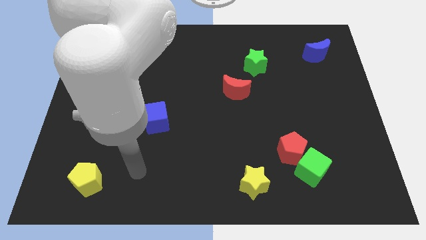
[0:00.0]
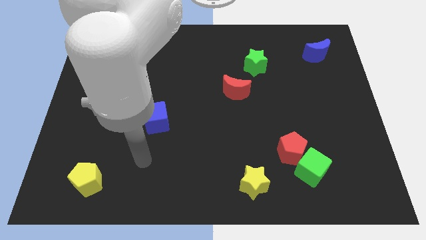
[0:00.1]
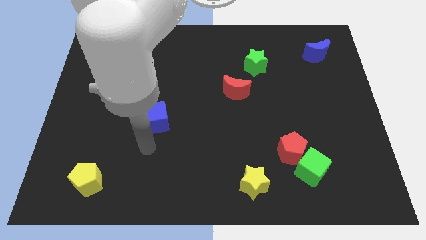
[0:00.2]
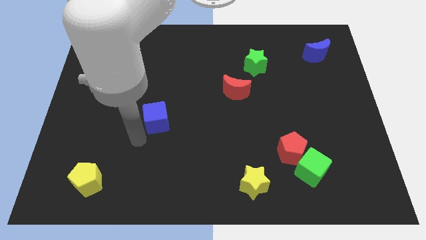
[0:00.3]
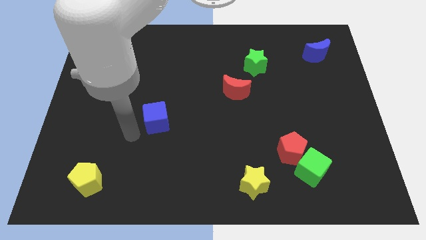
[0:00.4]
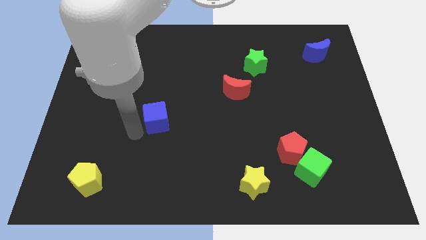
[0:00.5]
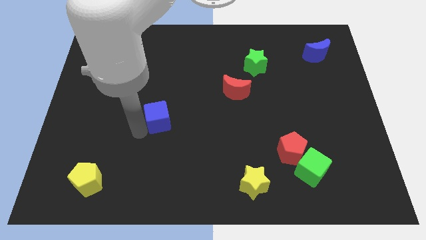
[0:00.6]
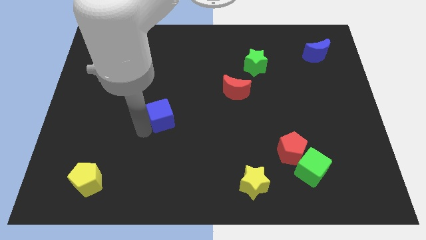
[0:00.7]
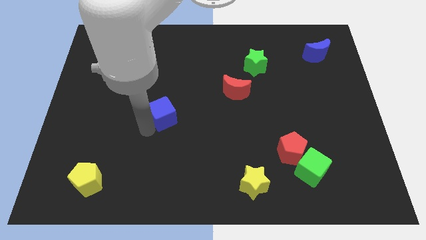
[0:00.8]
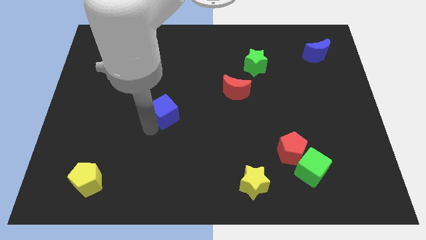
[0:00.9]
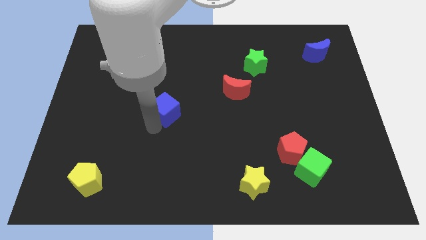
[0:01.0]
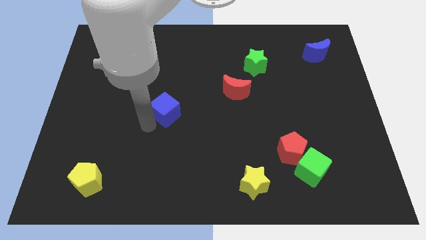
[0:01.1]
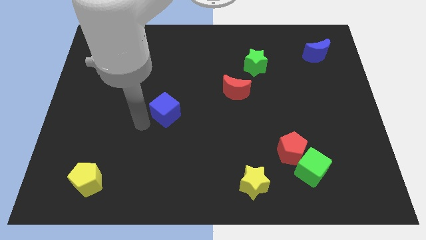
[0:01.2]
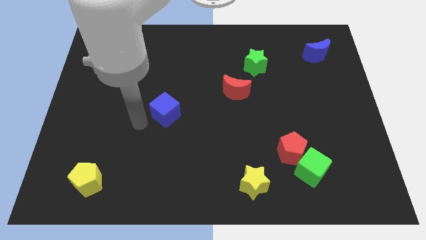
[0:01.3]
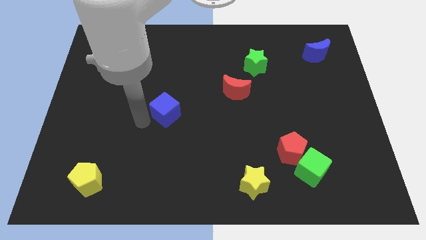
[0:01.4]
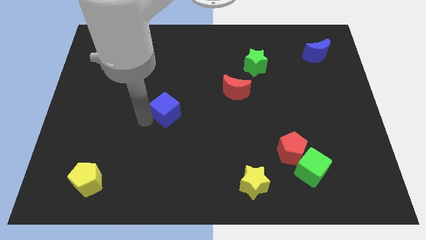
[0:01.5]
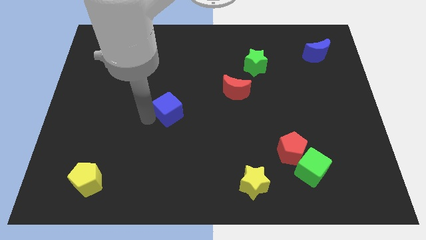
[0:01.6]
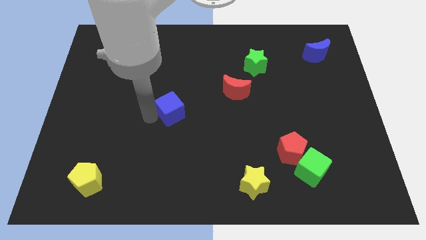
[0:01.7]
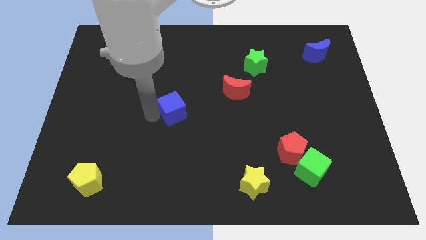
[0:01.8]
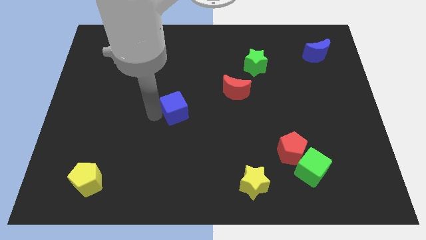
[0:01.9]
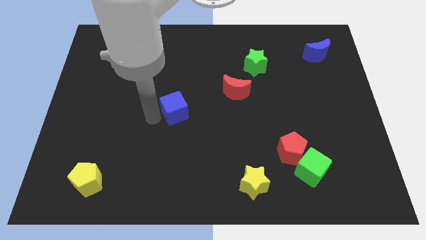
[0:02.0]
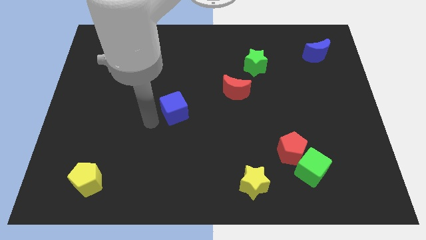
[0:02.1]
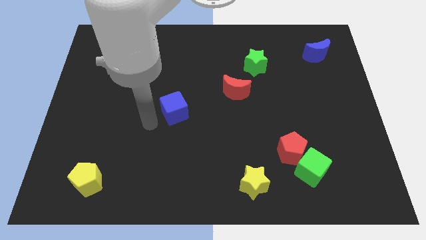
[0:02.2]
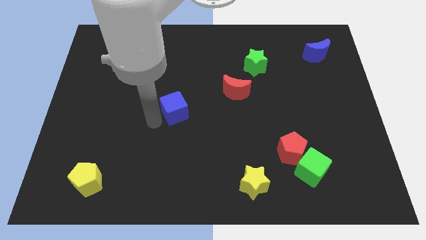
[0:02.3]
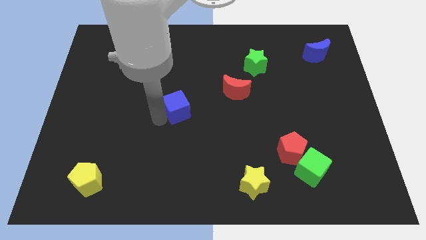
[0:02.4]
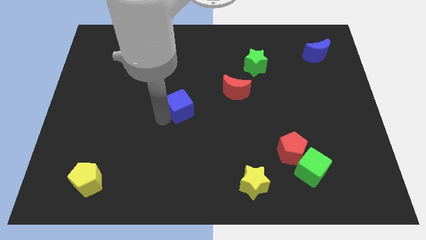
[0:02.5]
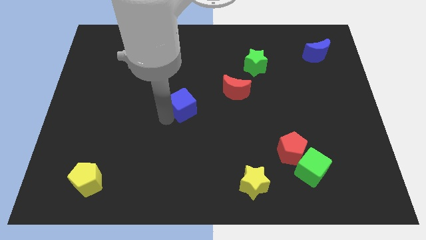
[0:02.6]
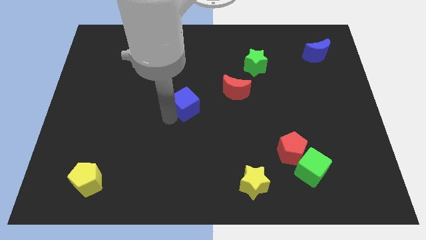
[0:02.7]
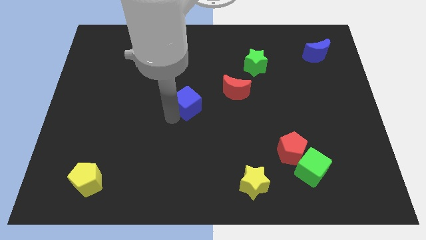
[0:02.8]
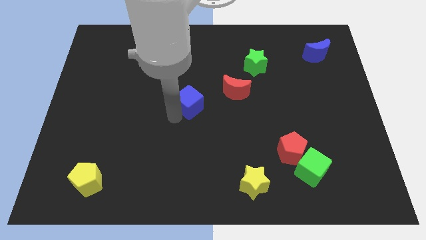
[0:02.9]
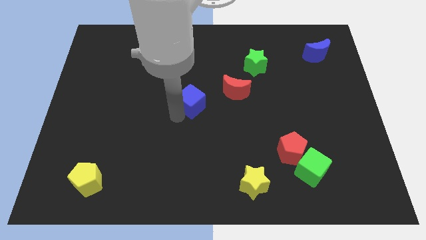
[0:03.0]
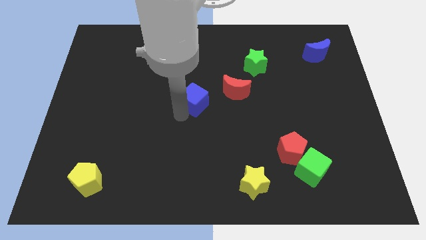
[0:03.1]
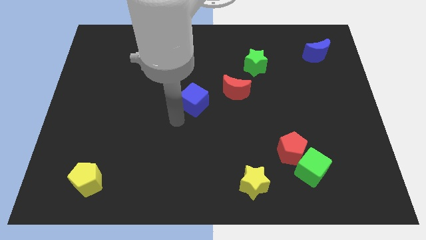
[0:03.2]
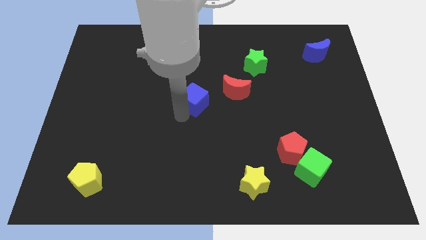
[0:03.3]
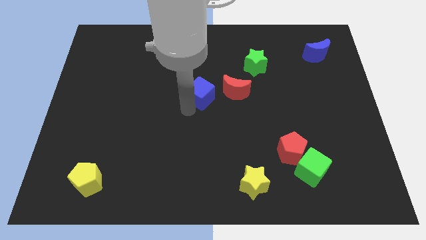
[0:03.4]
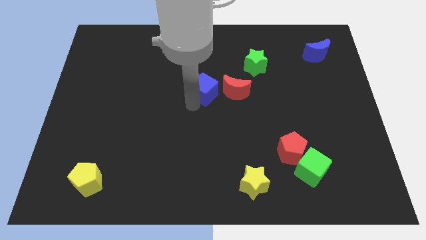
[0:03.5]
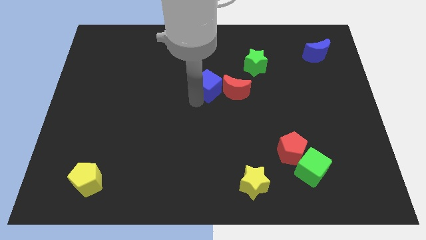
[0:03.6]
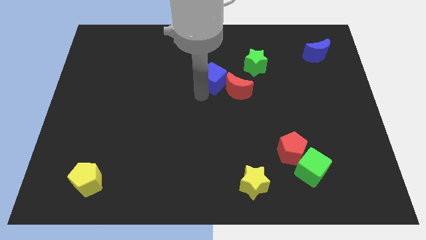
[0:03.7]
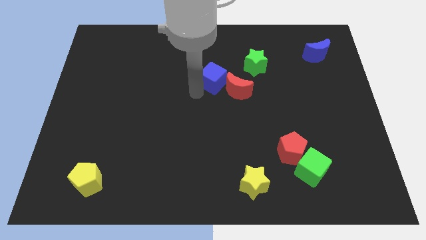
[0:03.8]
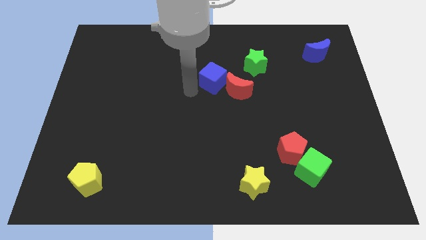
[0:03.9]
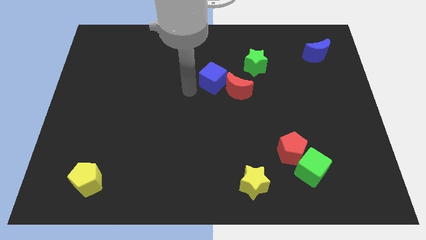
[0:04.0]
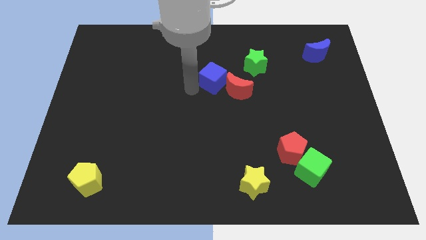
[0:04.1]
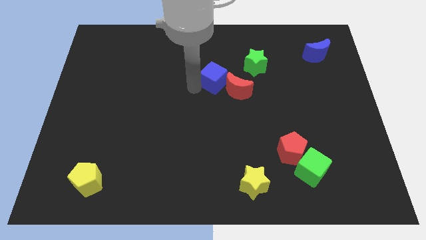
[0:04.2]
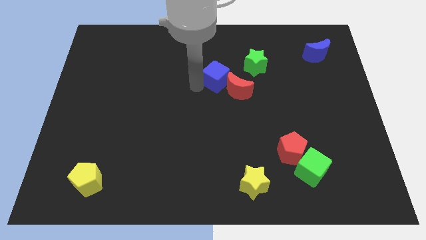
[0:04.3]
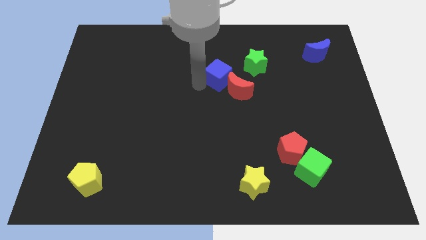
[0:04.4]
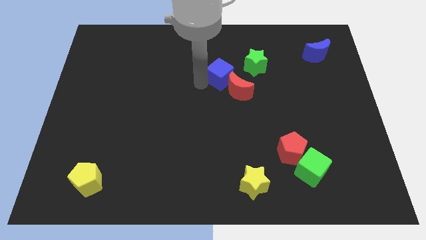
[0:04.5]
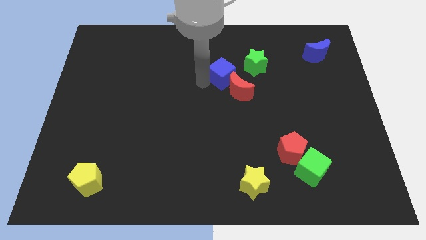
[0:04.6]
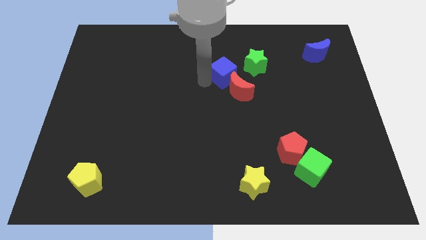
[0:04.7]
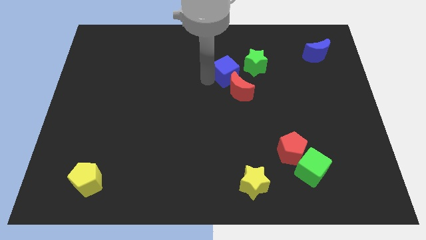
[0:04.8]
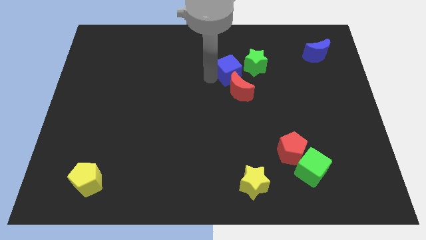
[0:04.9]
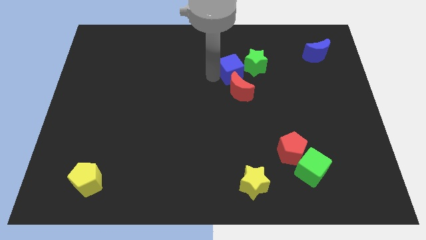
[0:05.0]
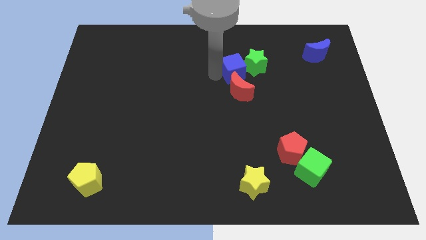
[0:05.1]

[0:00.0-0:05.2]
put the blue cube to the green star

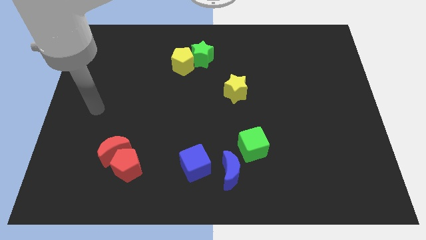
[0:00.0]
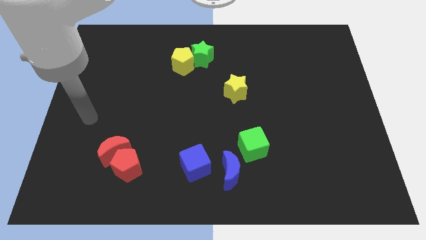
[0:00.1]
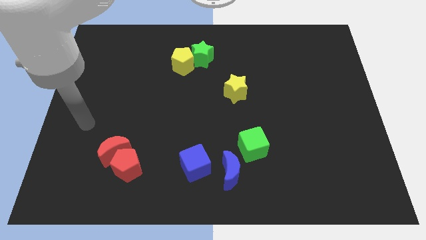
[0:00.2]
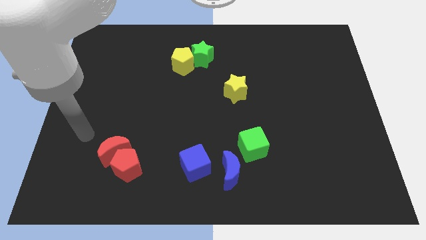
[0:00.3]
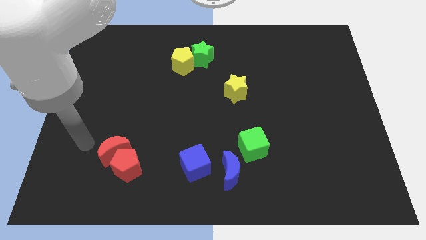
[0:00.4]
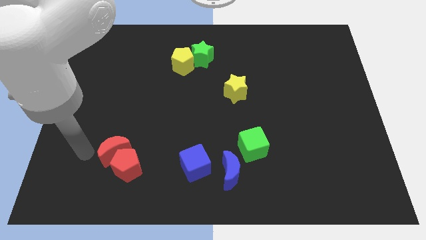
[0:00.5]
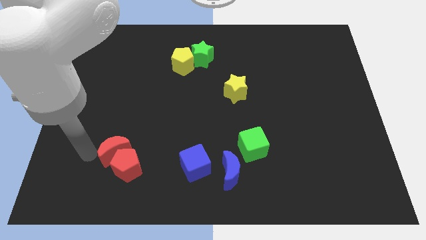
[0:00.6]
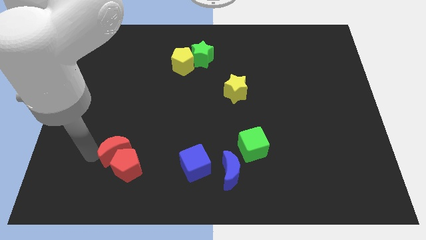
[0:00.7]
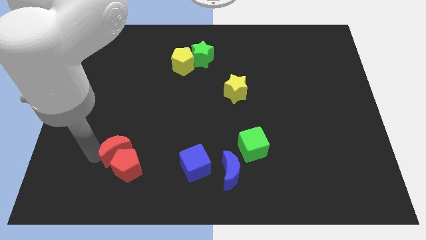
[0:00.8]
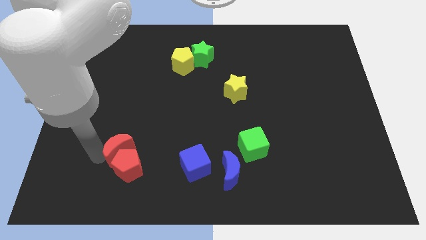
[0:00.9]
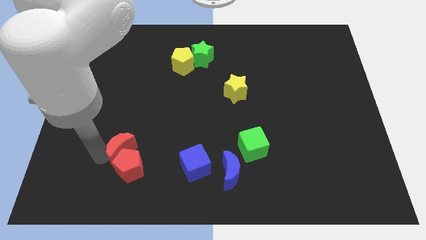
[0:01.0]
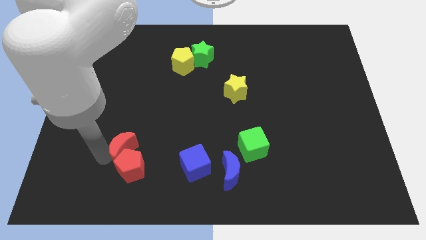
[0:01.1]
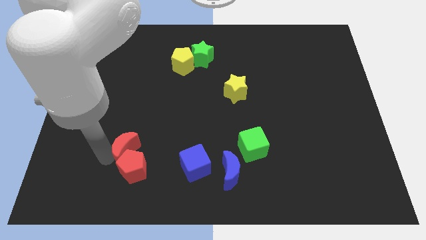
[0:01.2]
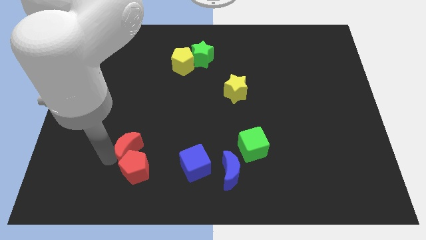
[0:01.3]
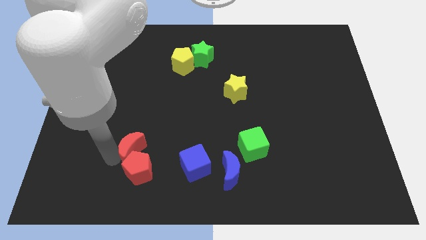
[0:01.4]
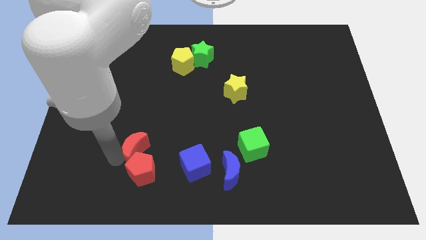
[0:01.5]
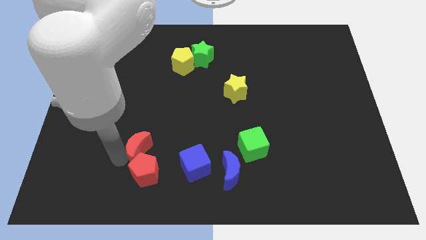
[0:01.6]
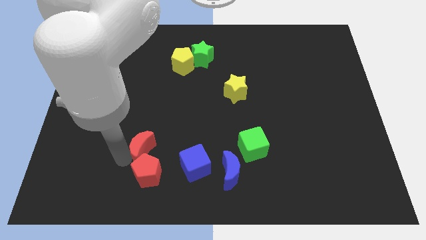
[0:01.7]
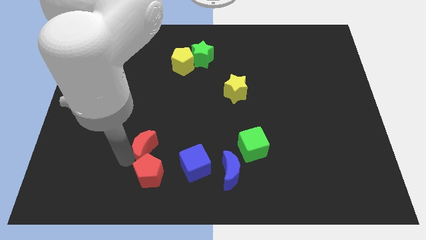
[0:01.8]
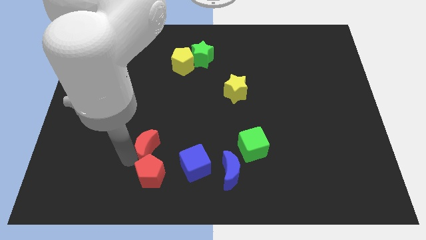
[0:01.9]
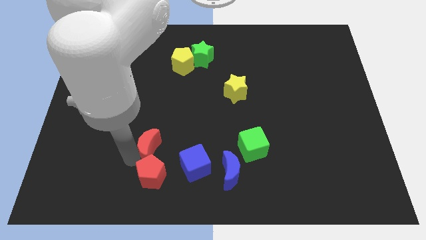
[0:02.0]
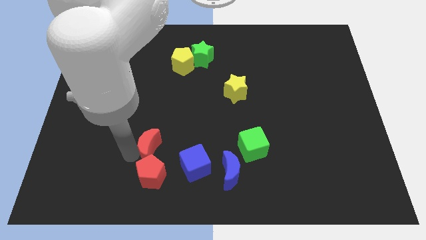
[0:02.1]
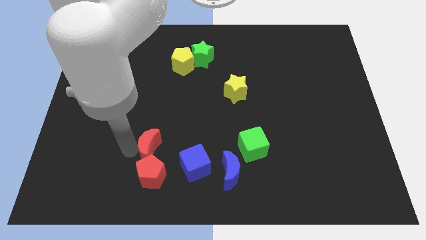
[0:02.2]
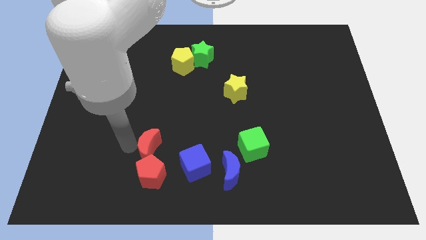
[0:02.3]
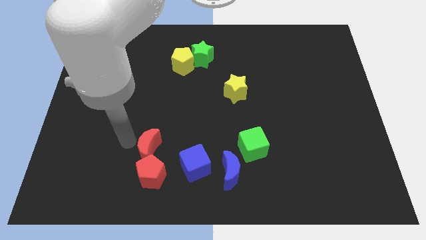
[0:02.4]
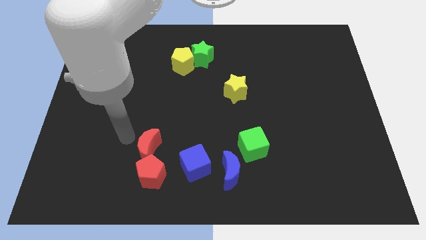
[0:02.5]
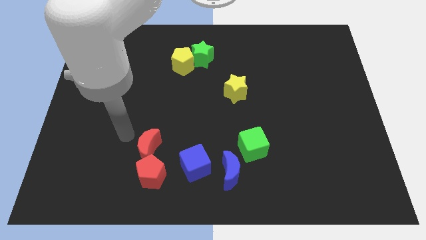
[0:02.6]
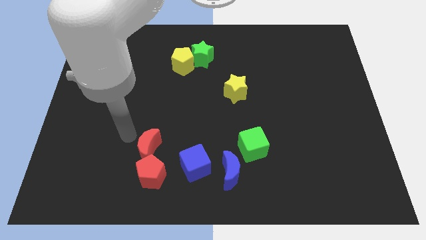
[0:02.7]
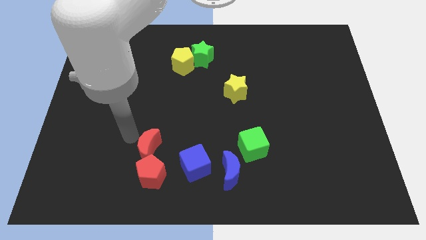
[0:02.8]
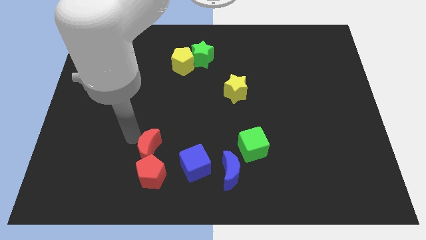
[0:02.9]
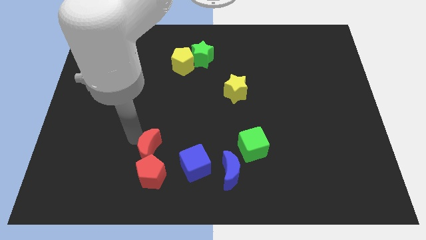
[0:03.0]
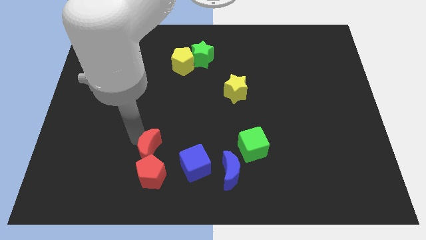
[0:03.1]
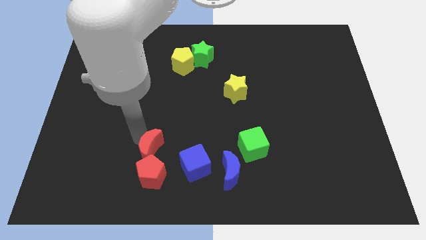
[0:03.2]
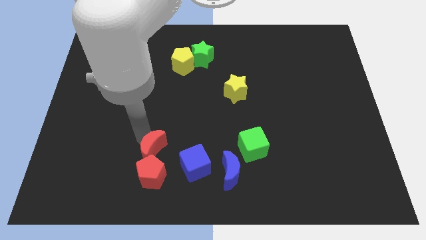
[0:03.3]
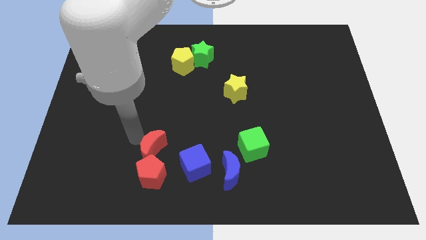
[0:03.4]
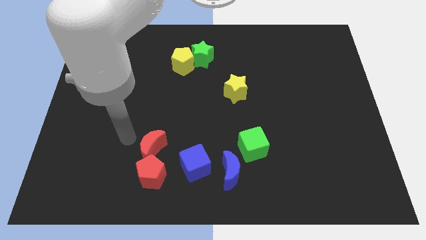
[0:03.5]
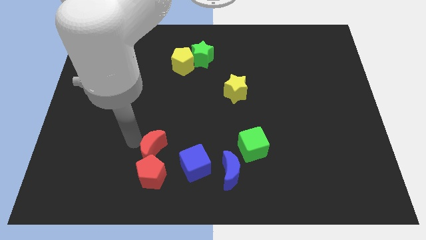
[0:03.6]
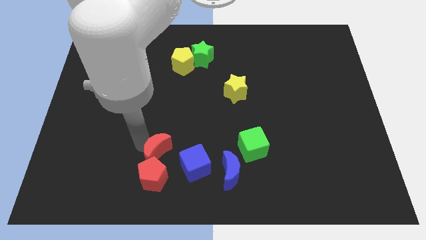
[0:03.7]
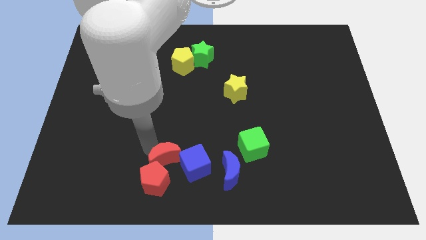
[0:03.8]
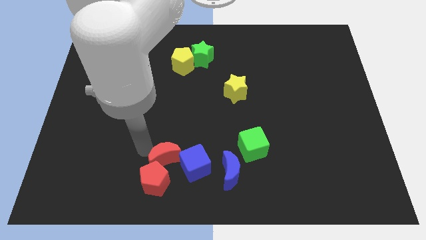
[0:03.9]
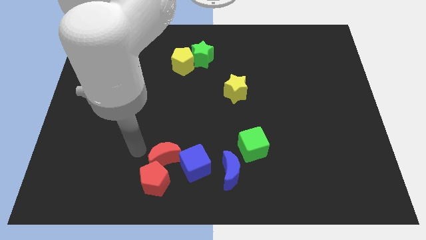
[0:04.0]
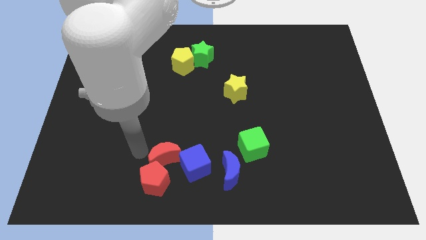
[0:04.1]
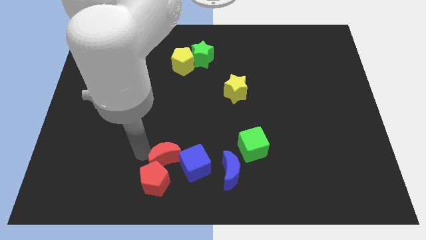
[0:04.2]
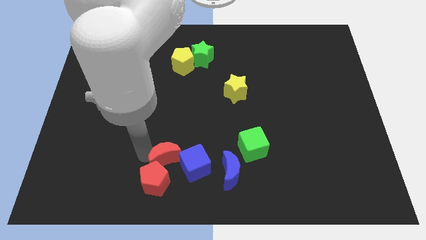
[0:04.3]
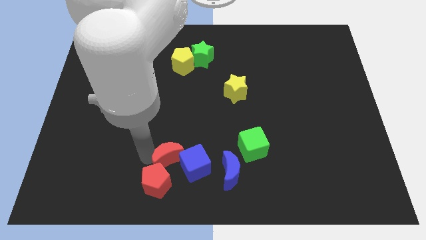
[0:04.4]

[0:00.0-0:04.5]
put the red moon to the blue cube
